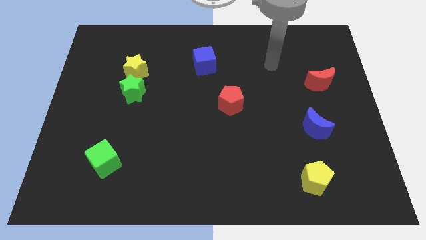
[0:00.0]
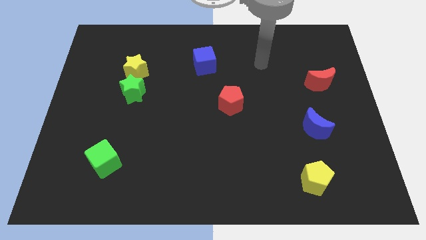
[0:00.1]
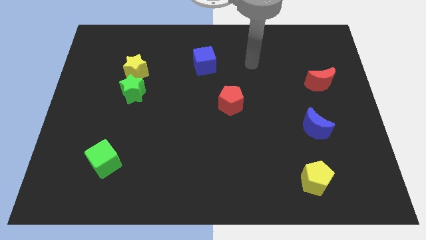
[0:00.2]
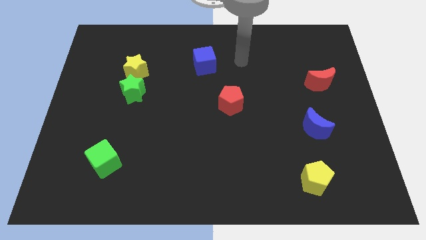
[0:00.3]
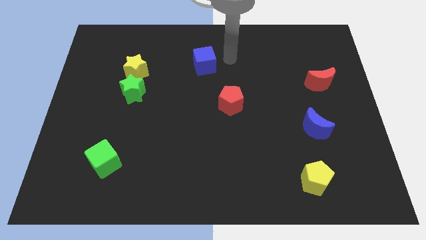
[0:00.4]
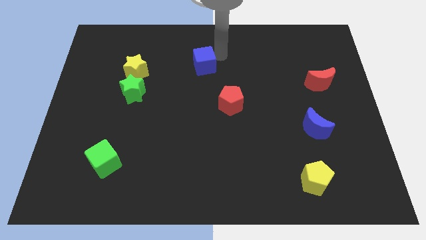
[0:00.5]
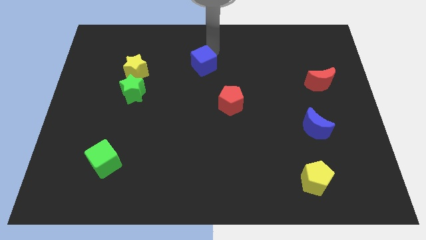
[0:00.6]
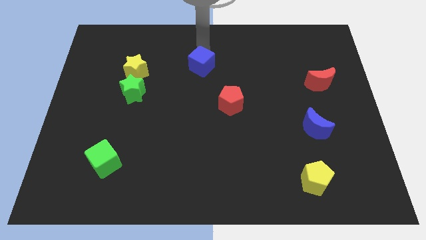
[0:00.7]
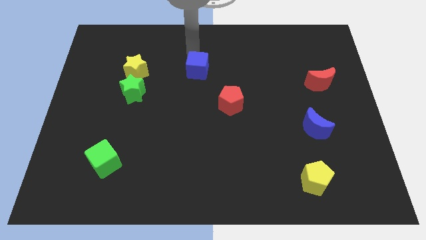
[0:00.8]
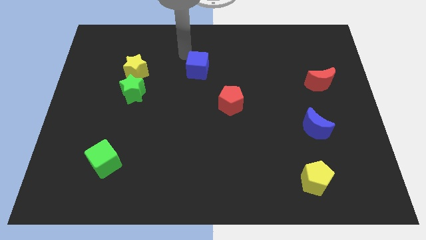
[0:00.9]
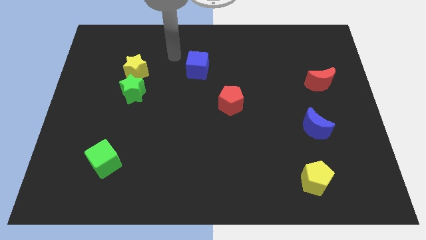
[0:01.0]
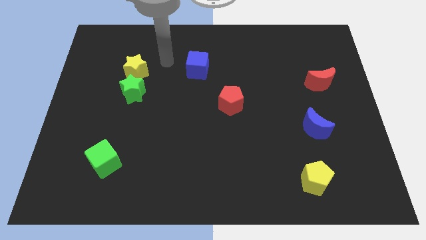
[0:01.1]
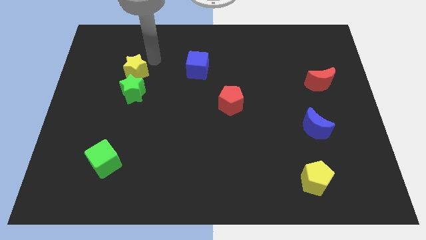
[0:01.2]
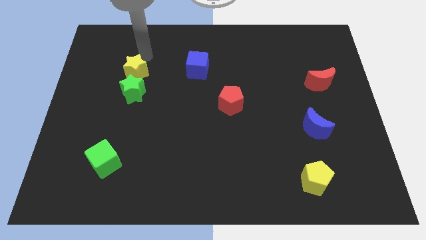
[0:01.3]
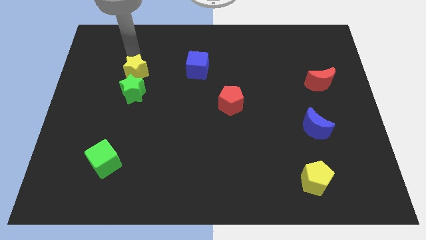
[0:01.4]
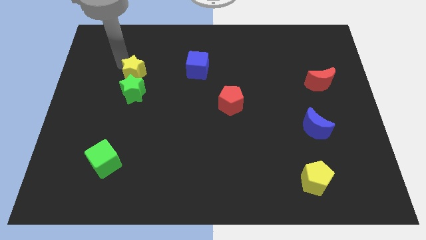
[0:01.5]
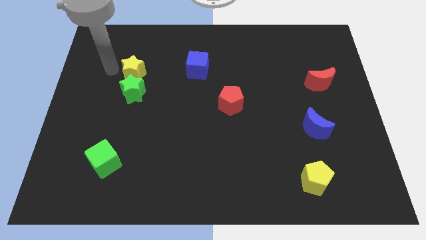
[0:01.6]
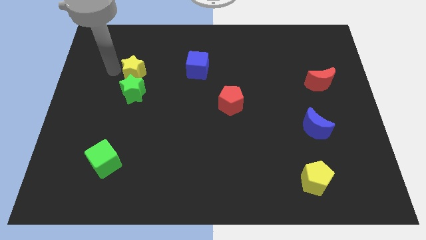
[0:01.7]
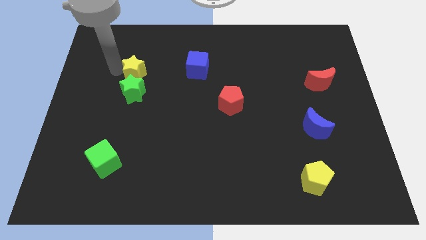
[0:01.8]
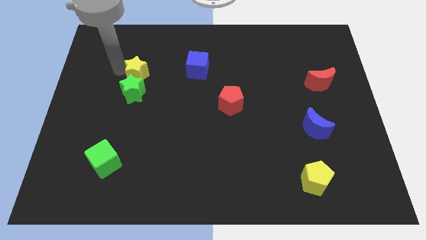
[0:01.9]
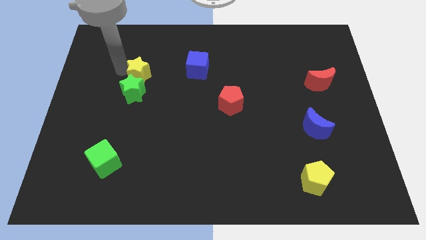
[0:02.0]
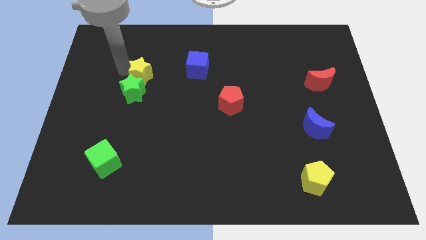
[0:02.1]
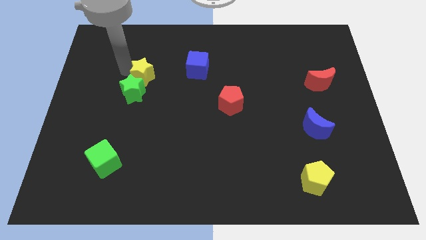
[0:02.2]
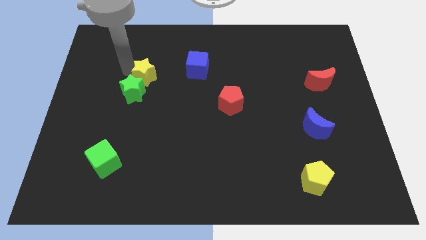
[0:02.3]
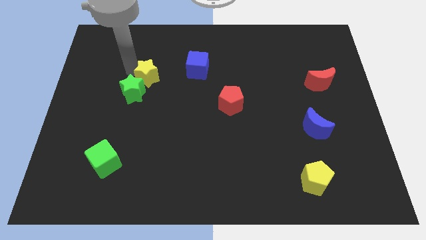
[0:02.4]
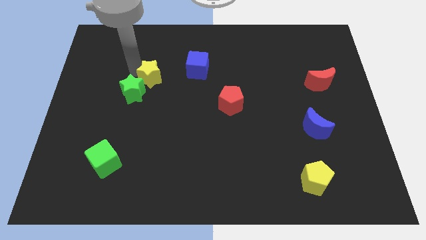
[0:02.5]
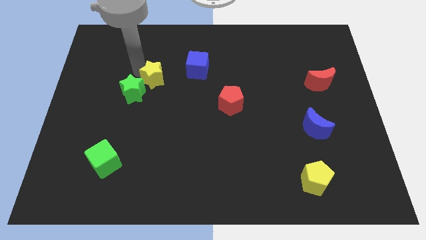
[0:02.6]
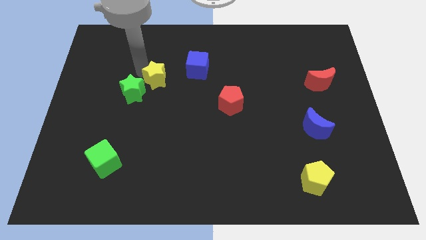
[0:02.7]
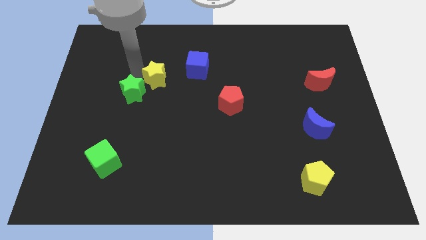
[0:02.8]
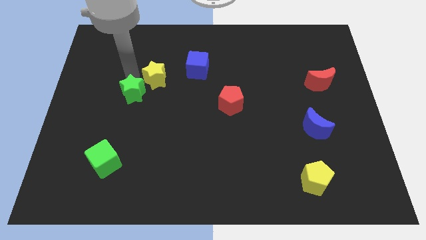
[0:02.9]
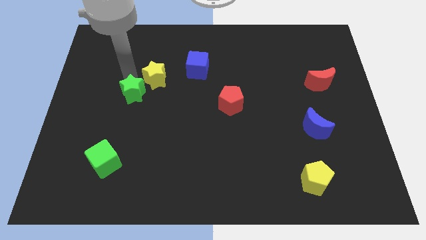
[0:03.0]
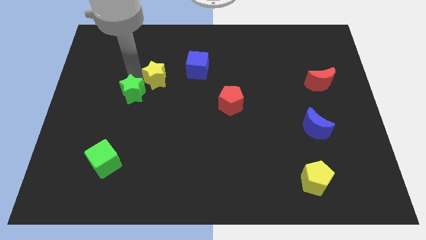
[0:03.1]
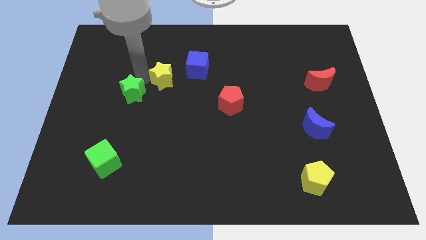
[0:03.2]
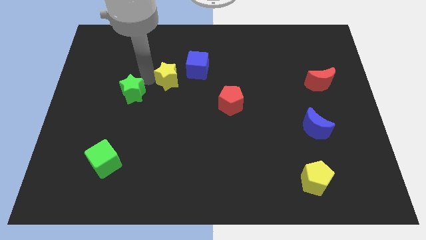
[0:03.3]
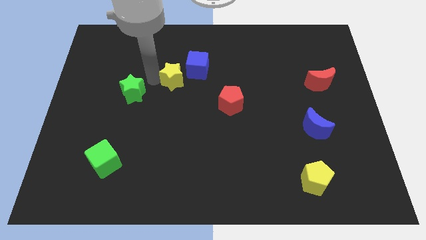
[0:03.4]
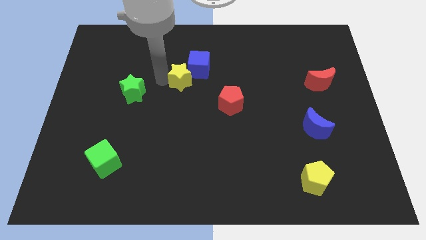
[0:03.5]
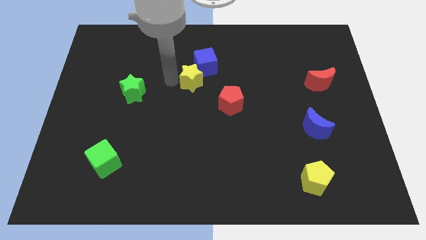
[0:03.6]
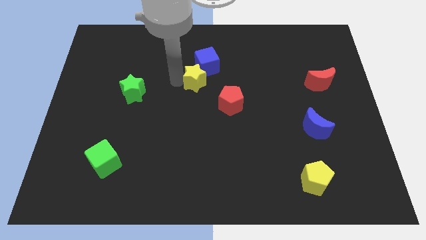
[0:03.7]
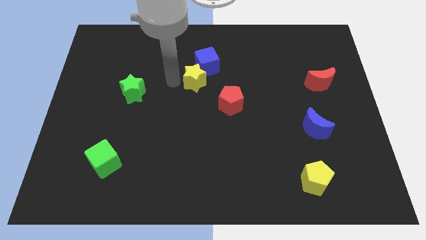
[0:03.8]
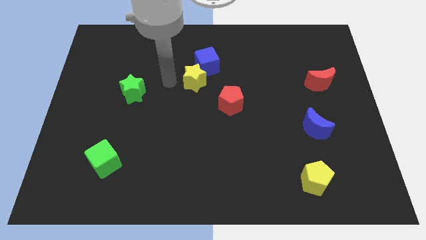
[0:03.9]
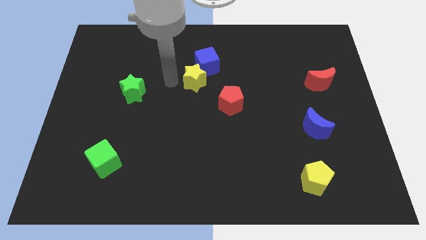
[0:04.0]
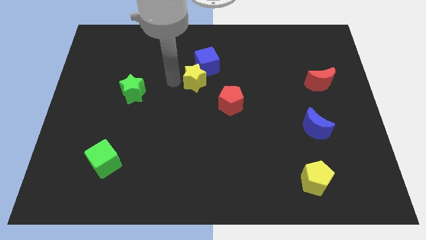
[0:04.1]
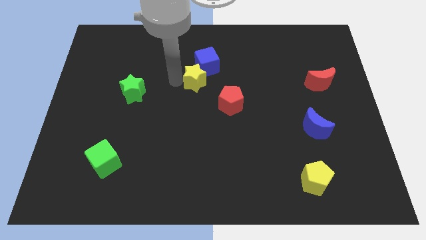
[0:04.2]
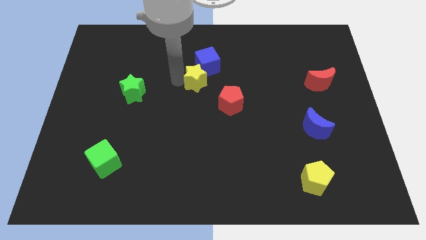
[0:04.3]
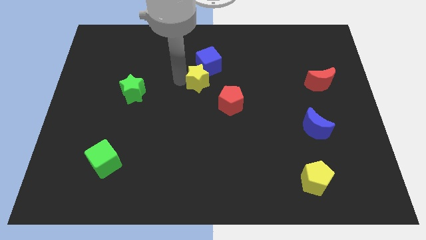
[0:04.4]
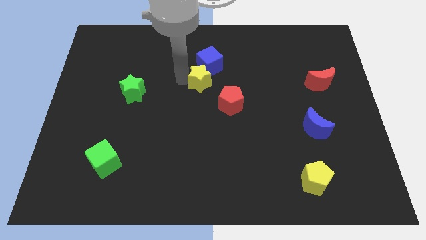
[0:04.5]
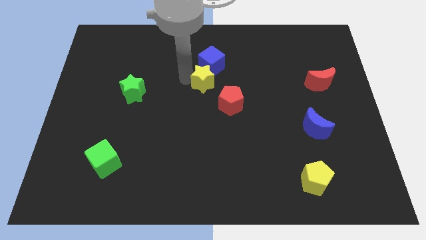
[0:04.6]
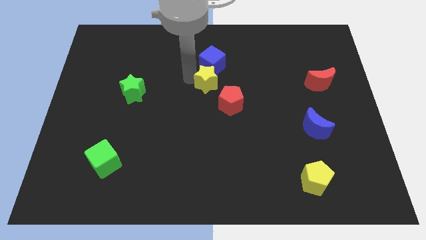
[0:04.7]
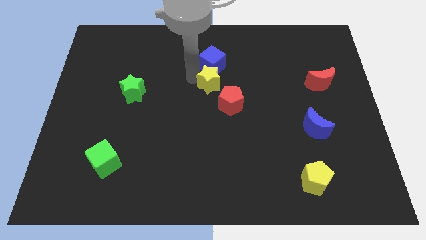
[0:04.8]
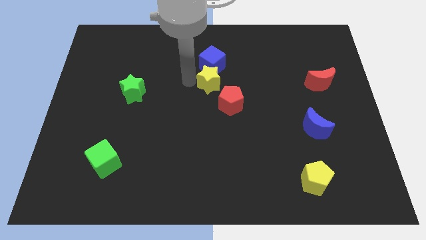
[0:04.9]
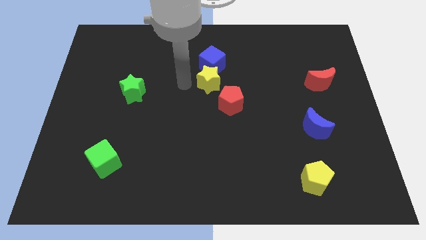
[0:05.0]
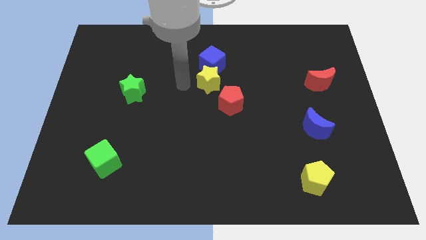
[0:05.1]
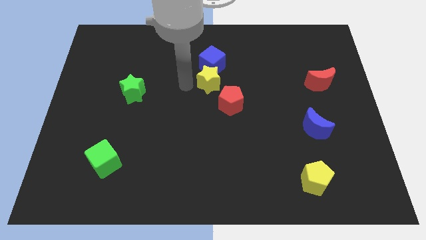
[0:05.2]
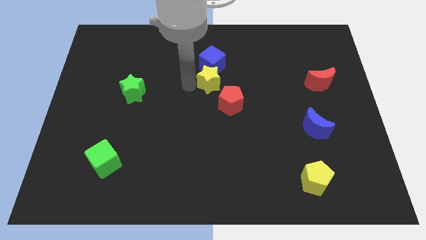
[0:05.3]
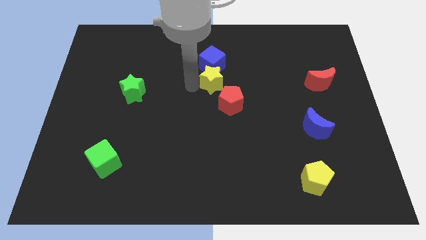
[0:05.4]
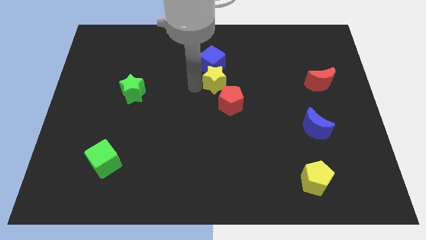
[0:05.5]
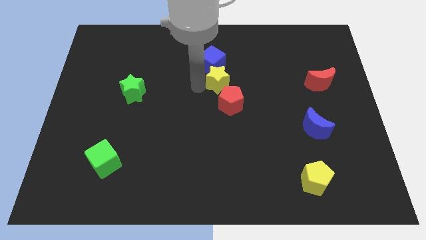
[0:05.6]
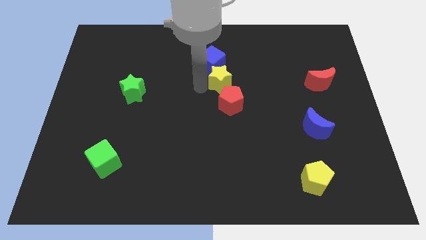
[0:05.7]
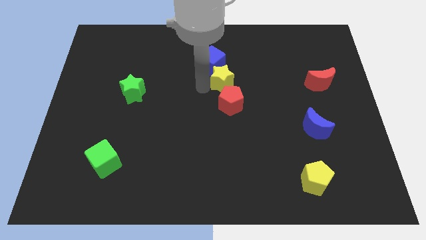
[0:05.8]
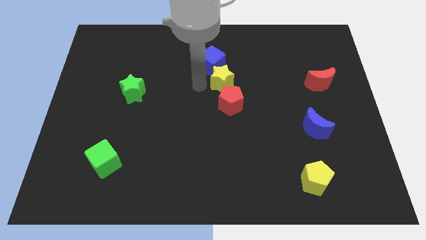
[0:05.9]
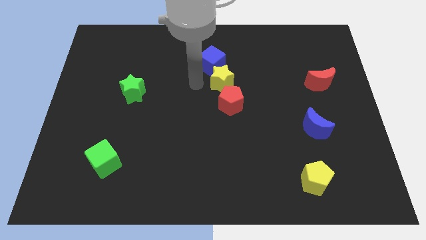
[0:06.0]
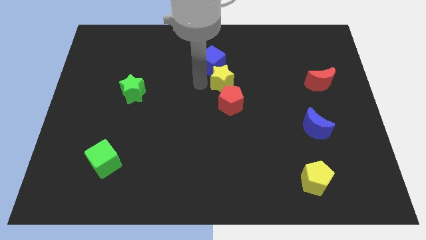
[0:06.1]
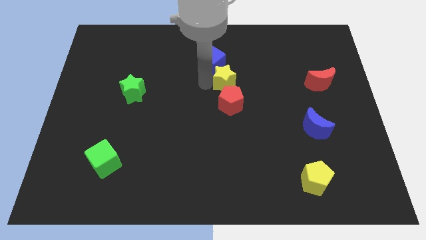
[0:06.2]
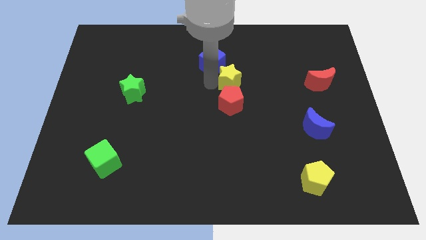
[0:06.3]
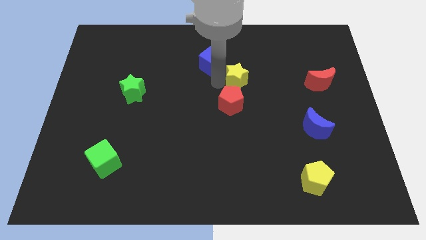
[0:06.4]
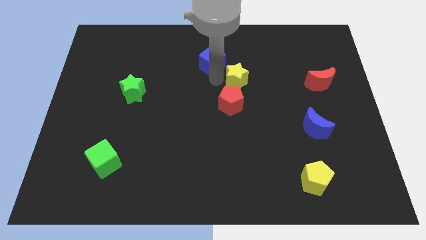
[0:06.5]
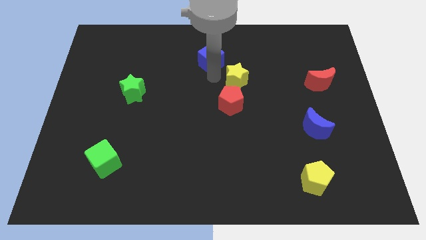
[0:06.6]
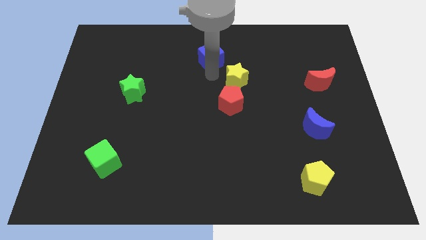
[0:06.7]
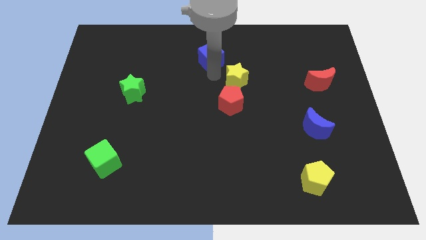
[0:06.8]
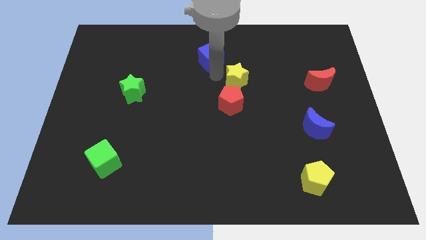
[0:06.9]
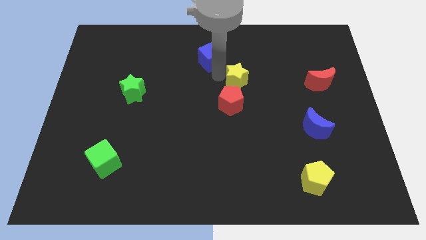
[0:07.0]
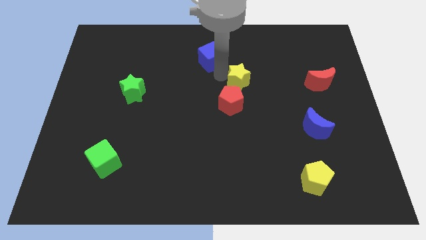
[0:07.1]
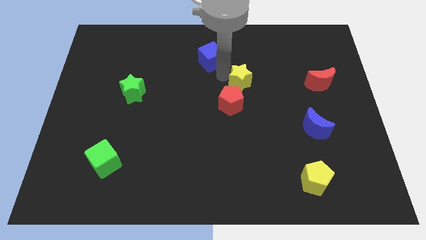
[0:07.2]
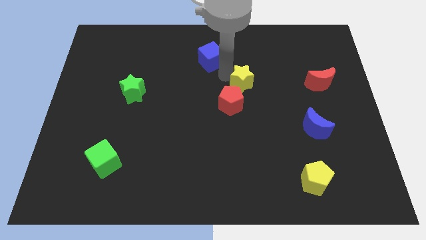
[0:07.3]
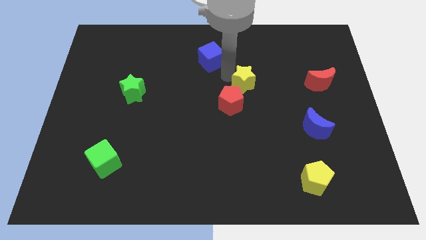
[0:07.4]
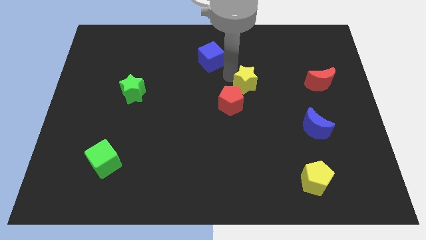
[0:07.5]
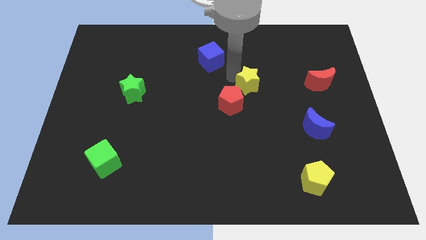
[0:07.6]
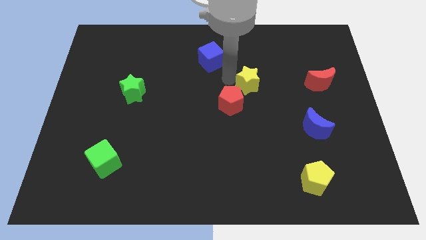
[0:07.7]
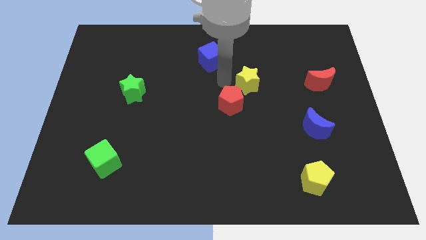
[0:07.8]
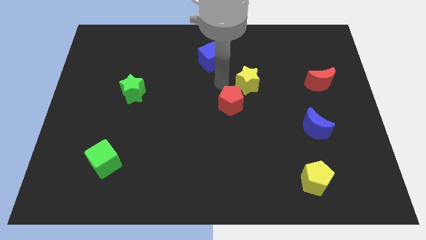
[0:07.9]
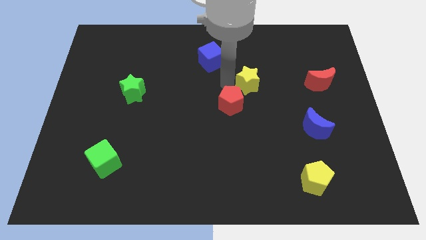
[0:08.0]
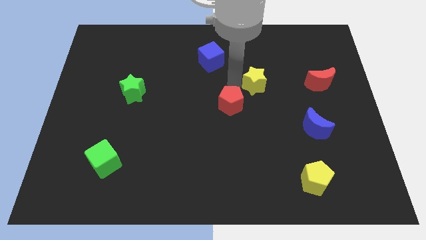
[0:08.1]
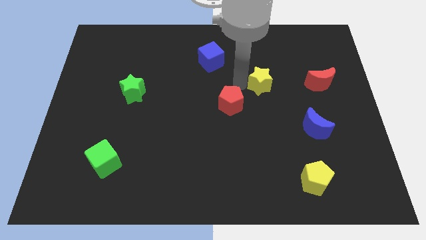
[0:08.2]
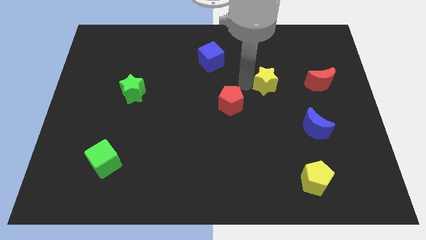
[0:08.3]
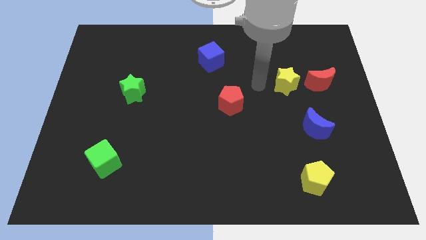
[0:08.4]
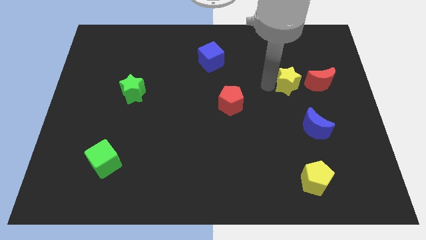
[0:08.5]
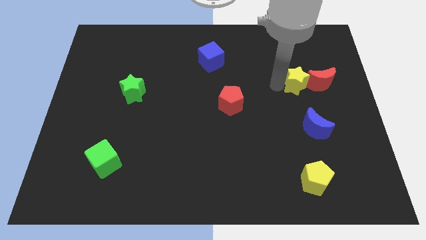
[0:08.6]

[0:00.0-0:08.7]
put the yellow star close to the red moon
